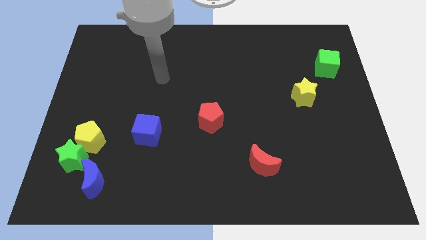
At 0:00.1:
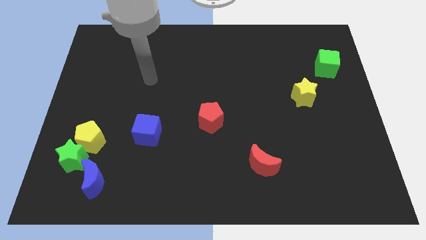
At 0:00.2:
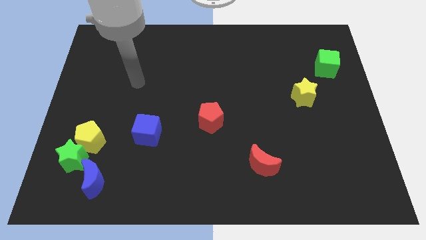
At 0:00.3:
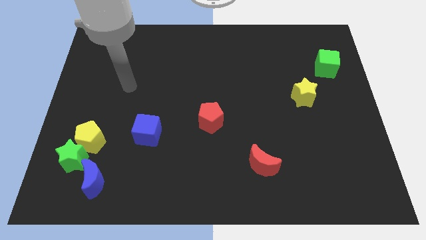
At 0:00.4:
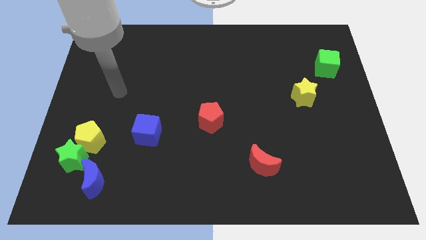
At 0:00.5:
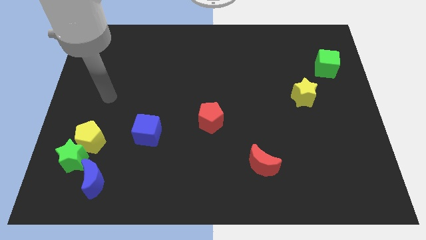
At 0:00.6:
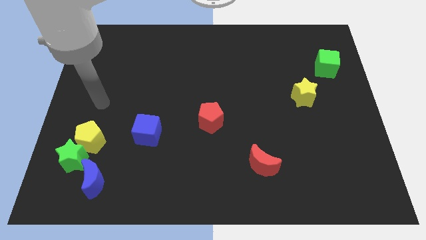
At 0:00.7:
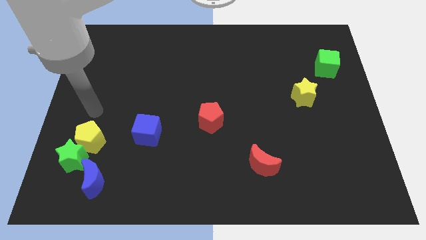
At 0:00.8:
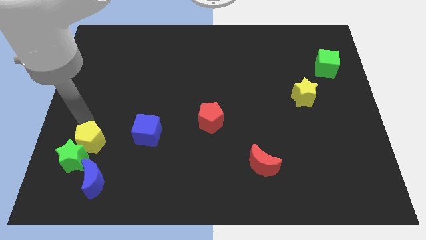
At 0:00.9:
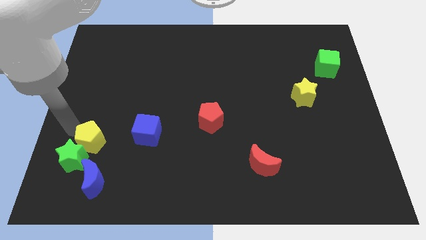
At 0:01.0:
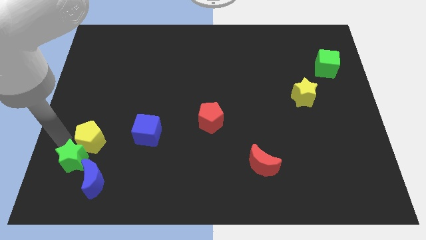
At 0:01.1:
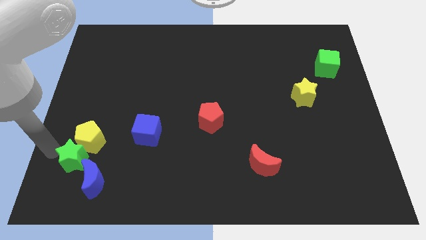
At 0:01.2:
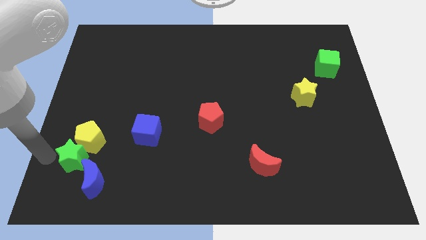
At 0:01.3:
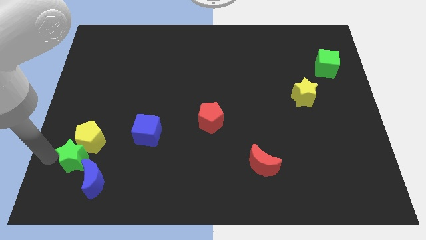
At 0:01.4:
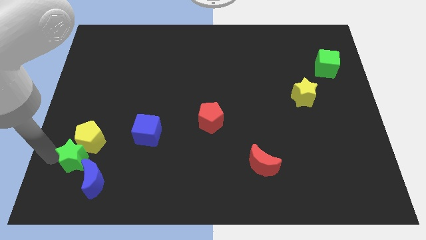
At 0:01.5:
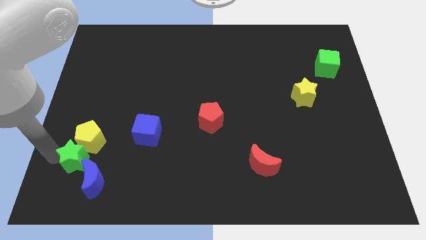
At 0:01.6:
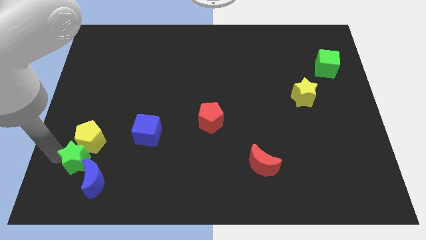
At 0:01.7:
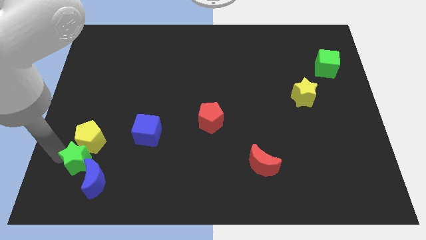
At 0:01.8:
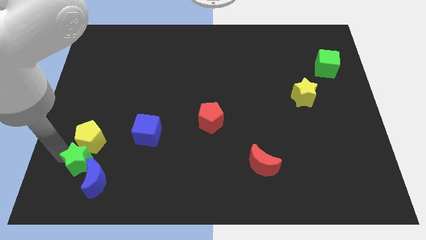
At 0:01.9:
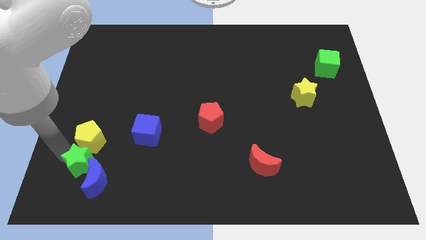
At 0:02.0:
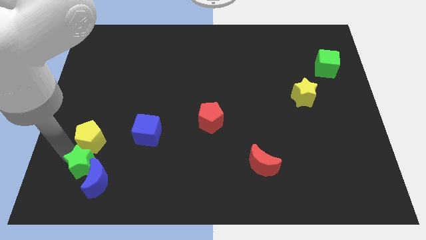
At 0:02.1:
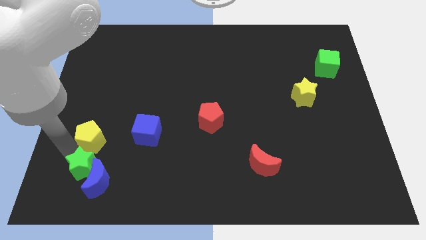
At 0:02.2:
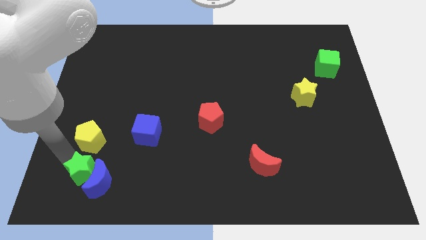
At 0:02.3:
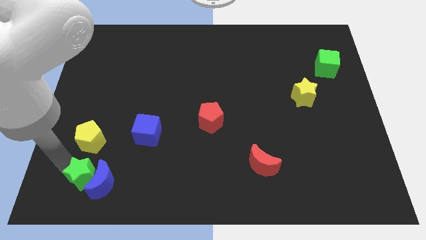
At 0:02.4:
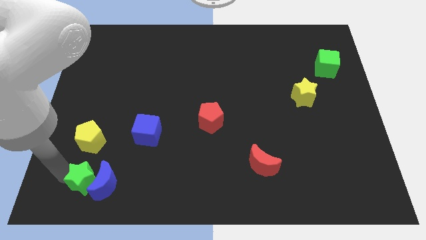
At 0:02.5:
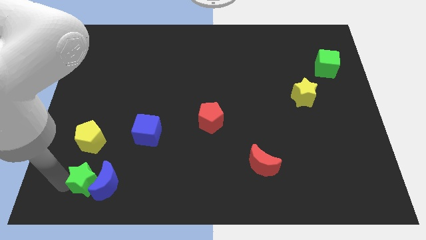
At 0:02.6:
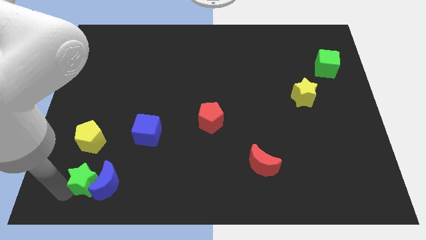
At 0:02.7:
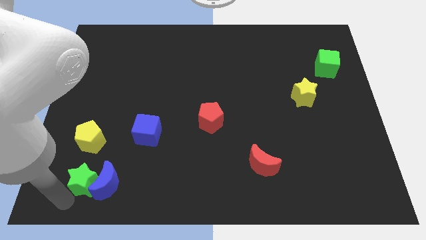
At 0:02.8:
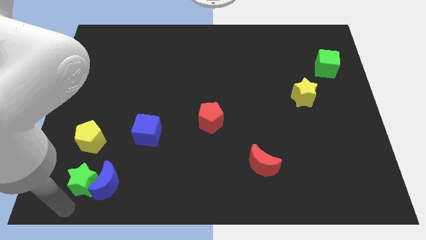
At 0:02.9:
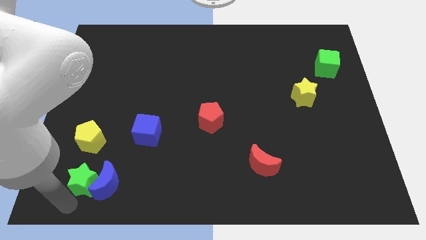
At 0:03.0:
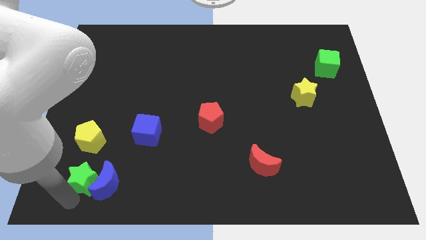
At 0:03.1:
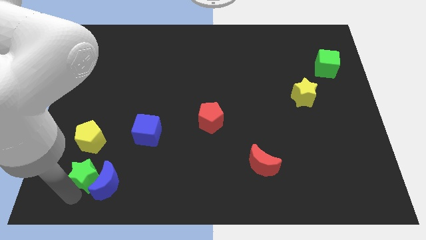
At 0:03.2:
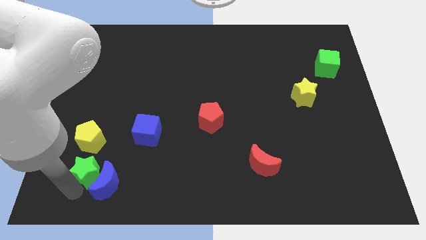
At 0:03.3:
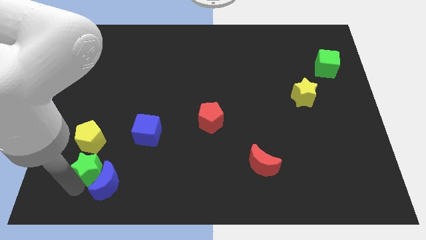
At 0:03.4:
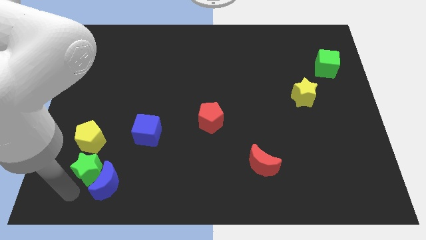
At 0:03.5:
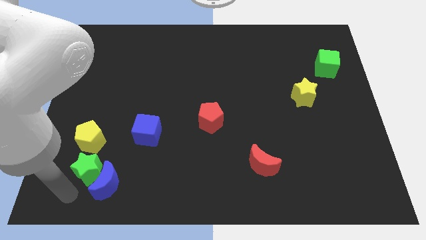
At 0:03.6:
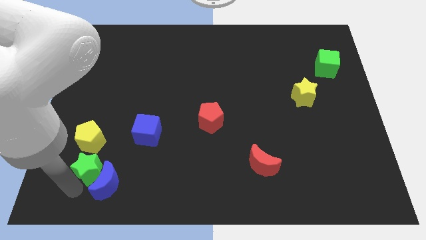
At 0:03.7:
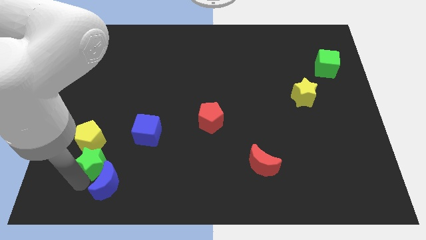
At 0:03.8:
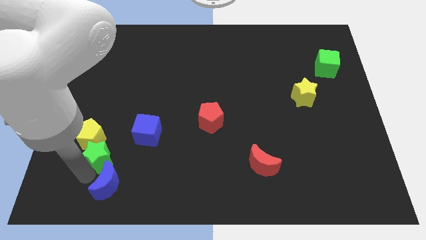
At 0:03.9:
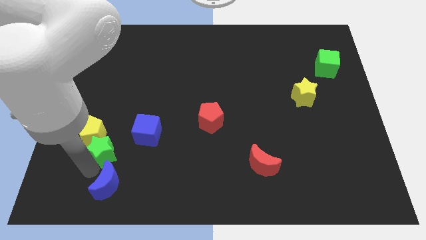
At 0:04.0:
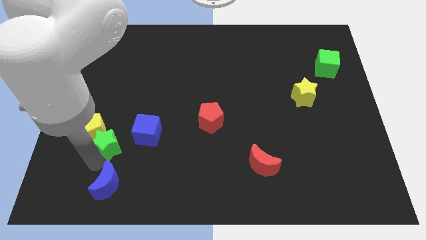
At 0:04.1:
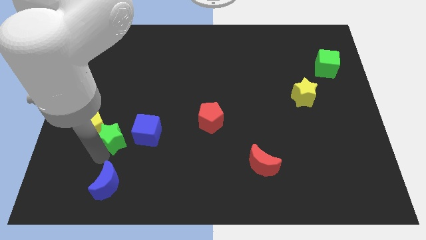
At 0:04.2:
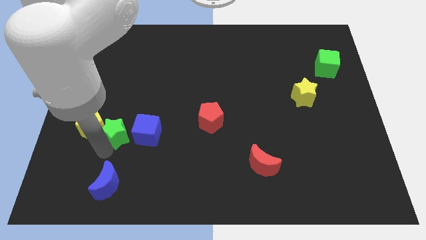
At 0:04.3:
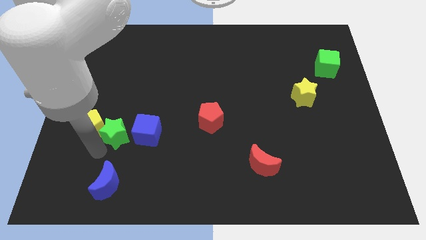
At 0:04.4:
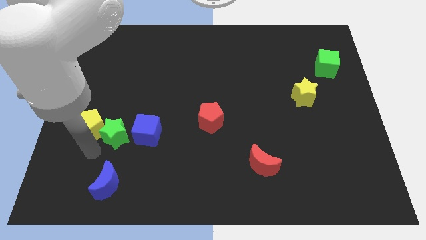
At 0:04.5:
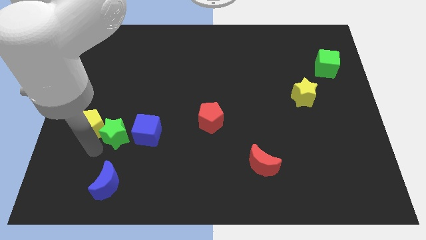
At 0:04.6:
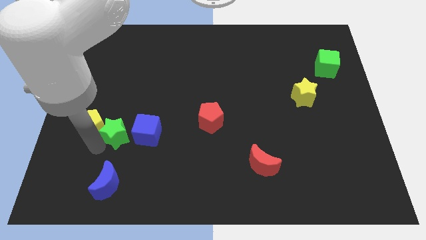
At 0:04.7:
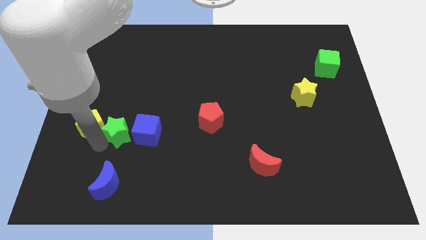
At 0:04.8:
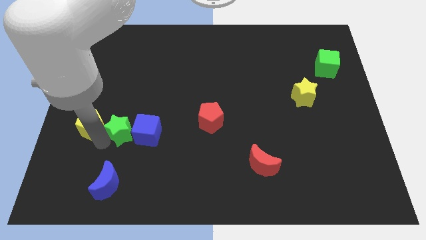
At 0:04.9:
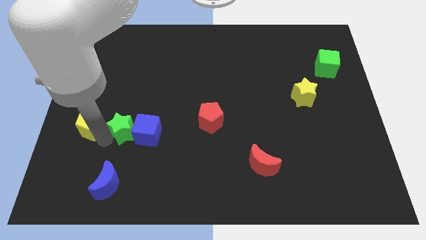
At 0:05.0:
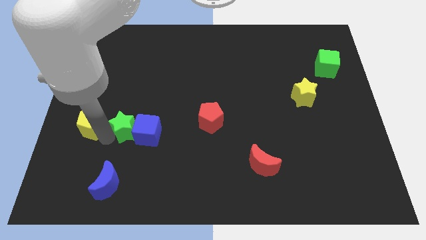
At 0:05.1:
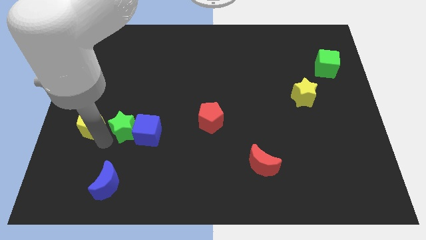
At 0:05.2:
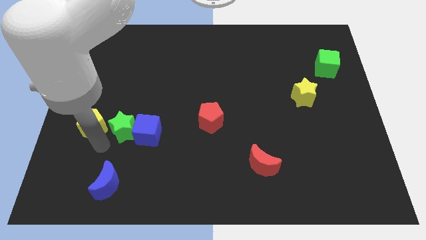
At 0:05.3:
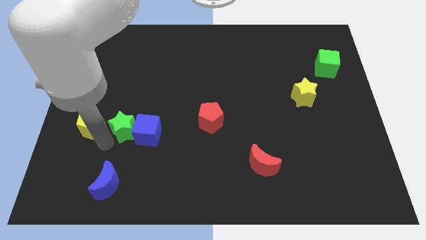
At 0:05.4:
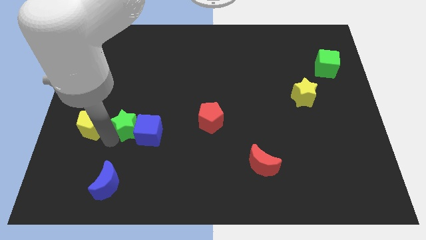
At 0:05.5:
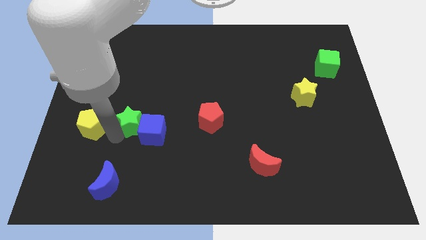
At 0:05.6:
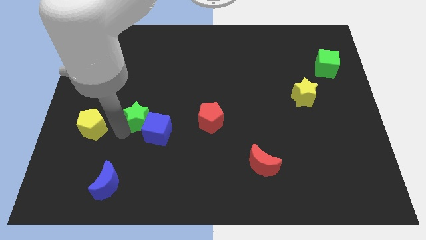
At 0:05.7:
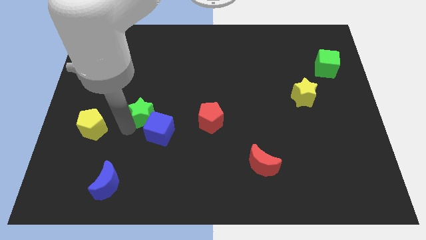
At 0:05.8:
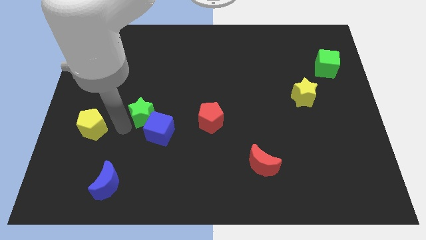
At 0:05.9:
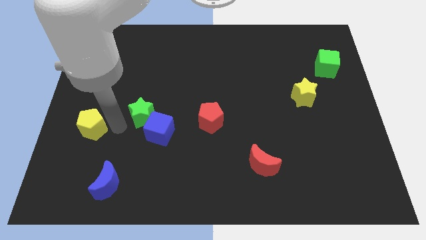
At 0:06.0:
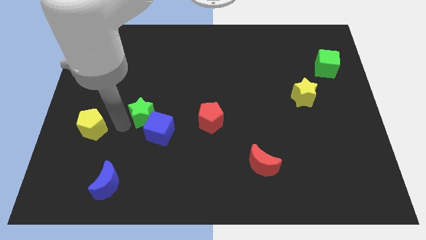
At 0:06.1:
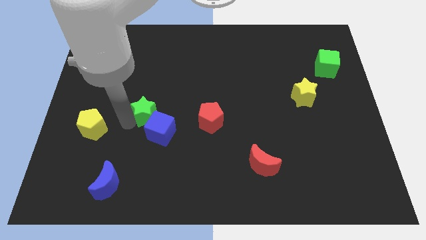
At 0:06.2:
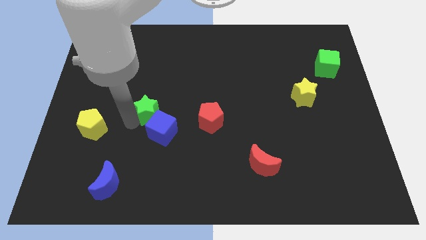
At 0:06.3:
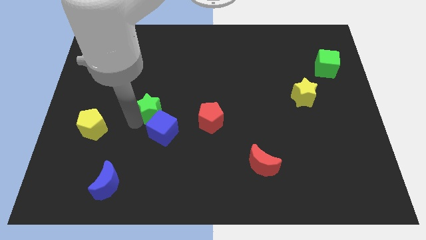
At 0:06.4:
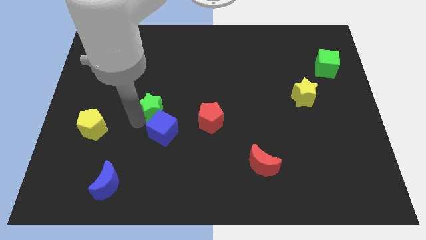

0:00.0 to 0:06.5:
push the green star upwards and to the right

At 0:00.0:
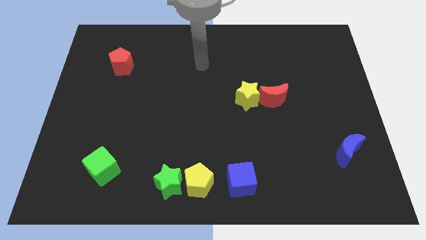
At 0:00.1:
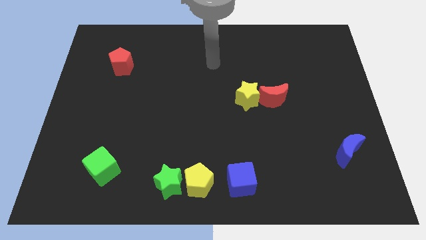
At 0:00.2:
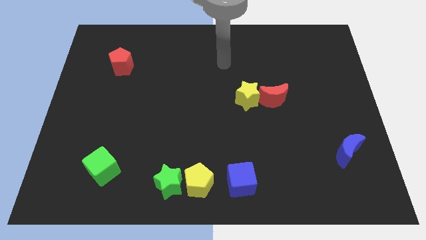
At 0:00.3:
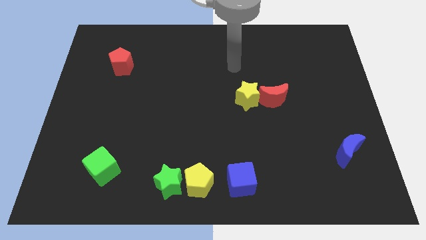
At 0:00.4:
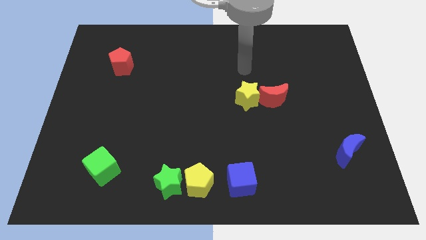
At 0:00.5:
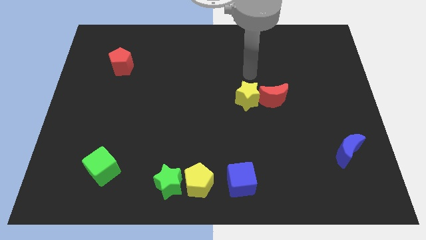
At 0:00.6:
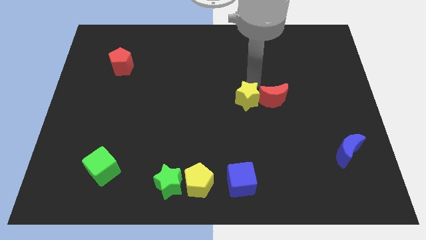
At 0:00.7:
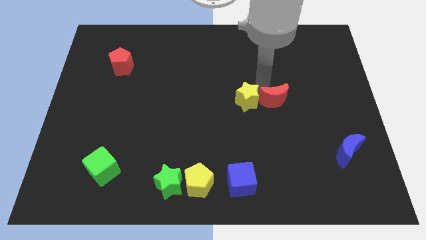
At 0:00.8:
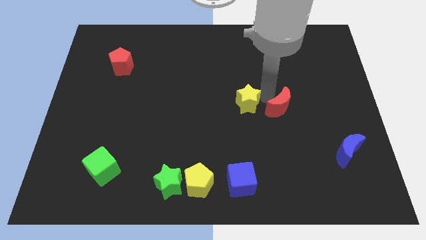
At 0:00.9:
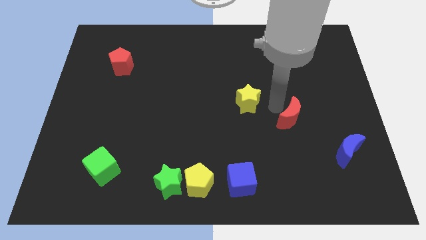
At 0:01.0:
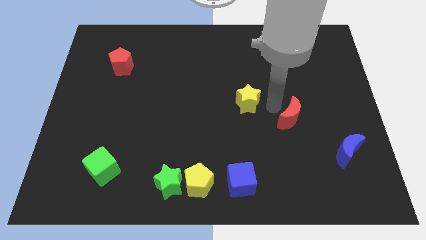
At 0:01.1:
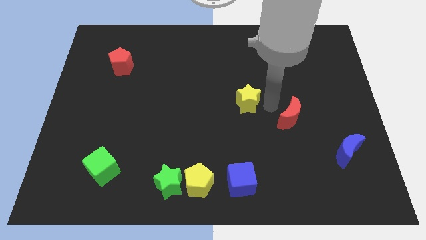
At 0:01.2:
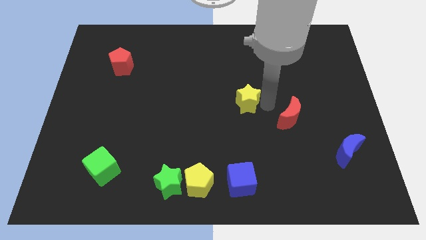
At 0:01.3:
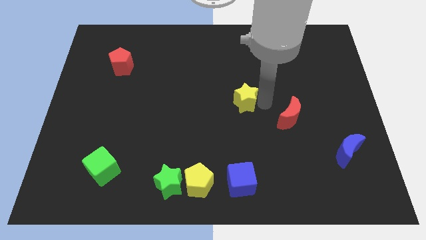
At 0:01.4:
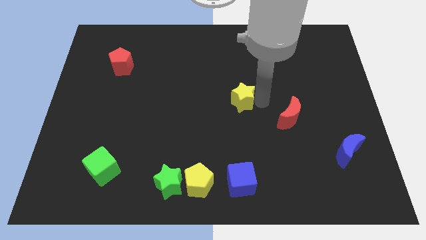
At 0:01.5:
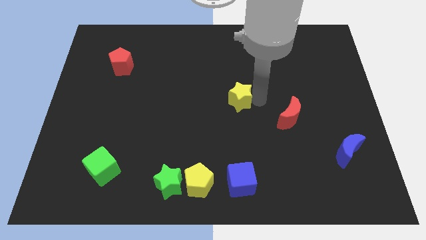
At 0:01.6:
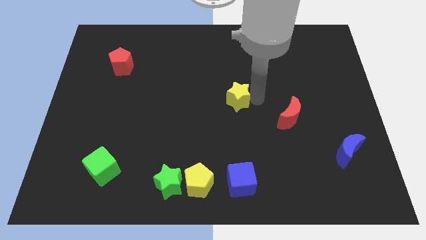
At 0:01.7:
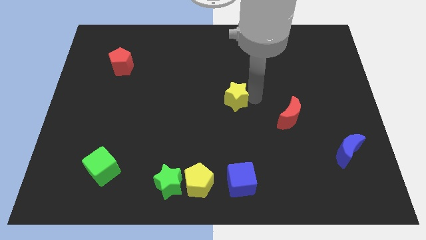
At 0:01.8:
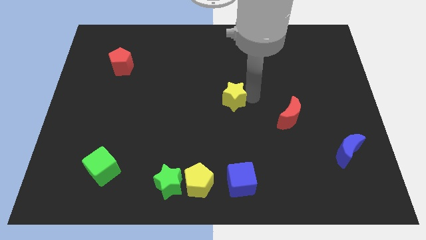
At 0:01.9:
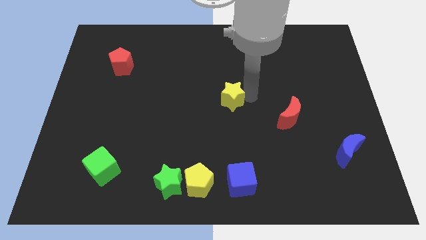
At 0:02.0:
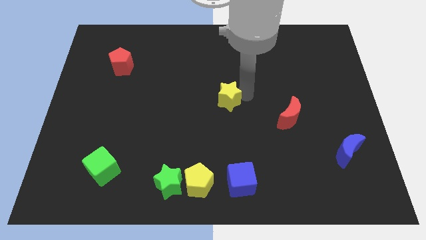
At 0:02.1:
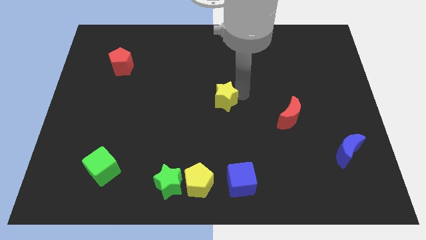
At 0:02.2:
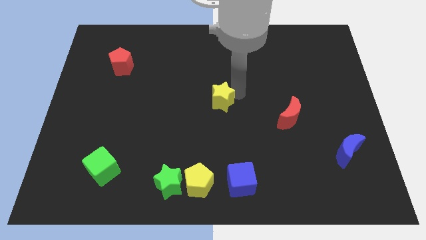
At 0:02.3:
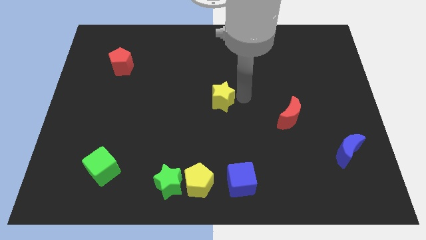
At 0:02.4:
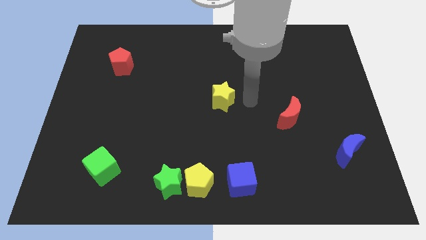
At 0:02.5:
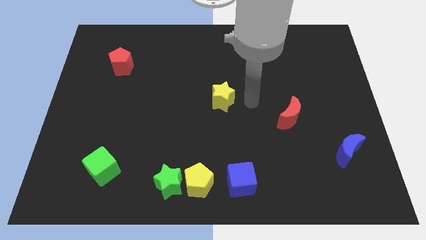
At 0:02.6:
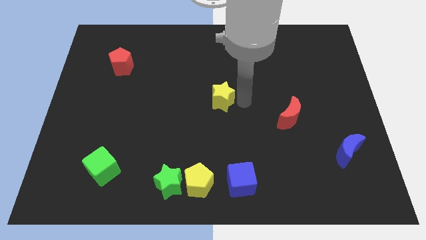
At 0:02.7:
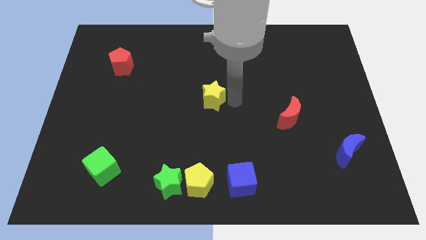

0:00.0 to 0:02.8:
slide the yellow star left slightly
